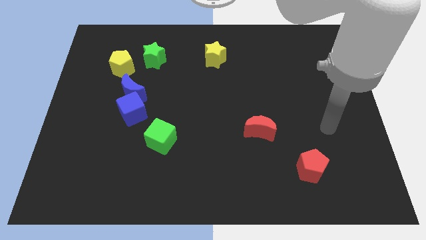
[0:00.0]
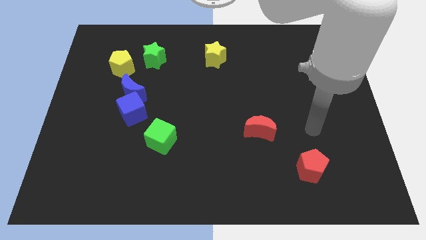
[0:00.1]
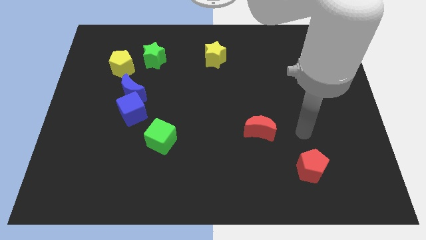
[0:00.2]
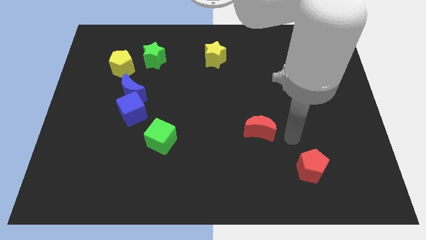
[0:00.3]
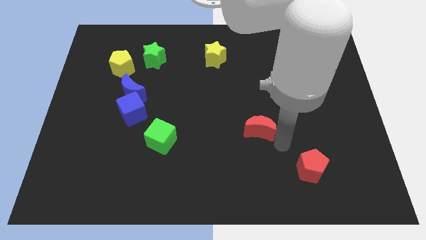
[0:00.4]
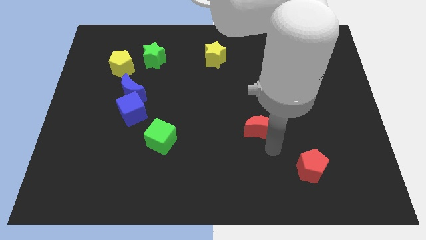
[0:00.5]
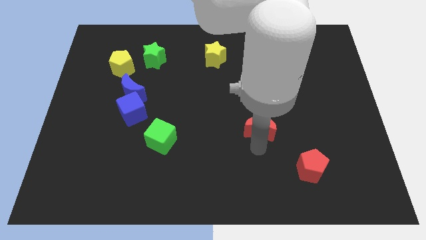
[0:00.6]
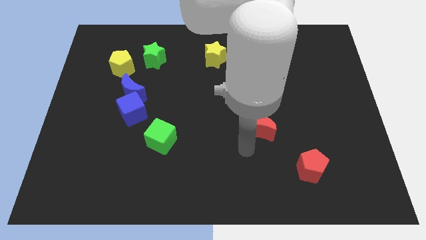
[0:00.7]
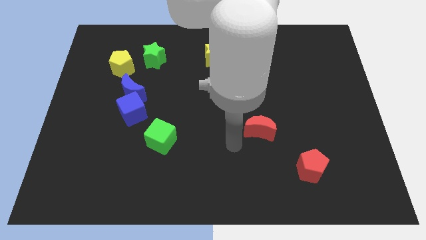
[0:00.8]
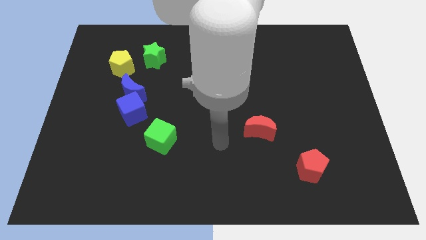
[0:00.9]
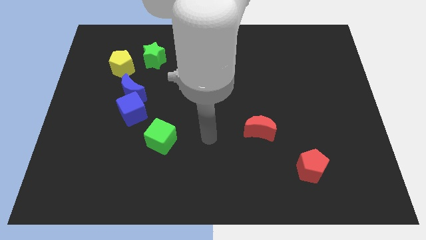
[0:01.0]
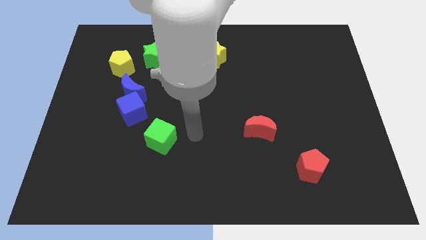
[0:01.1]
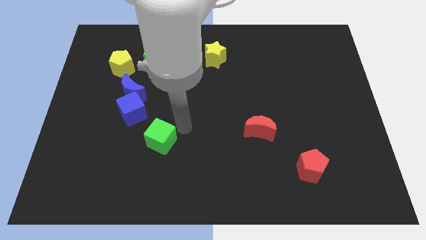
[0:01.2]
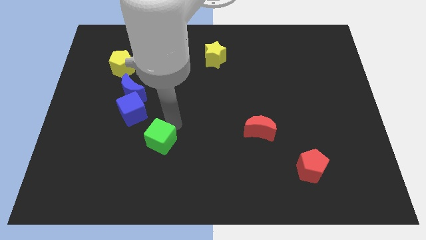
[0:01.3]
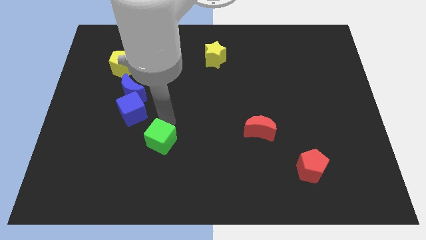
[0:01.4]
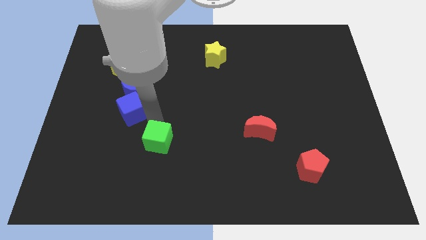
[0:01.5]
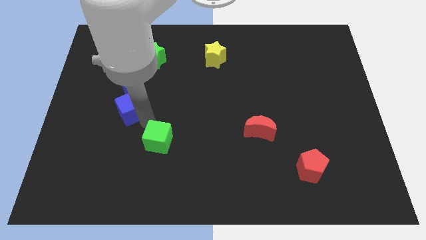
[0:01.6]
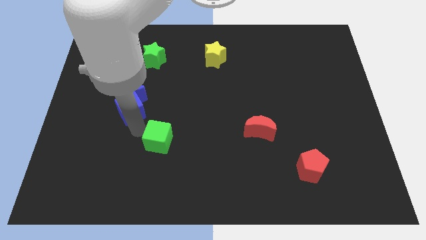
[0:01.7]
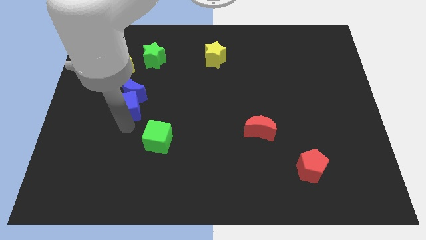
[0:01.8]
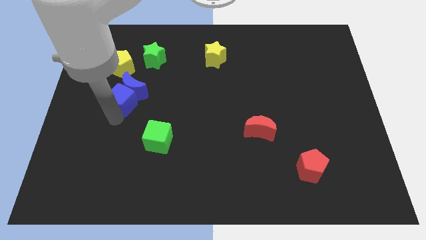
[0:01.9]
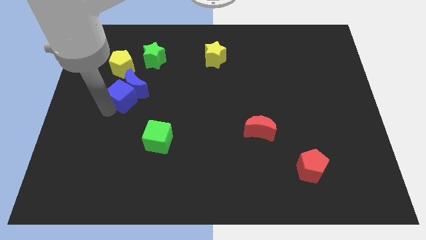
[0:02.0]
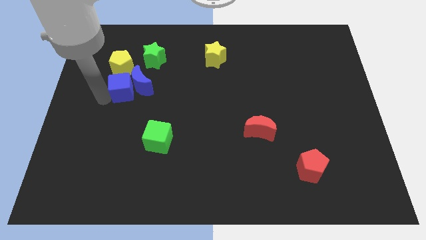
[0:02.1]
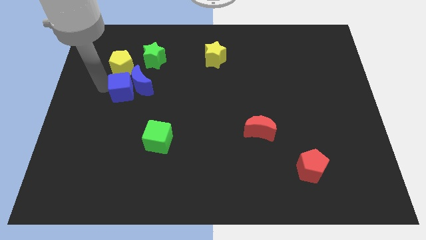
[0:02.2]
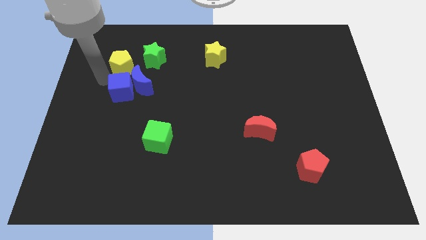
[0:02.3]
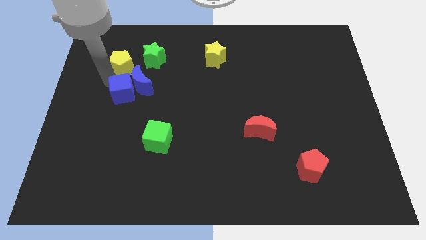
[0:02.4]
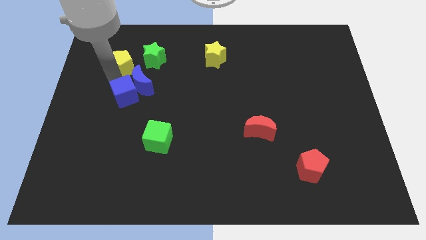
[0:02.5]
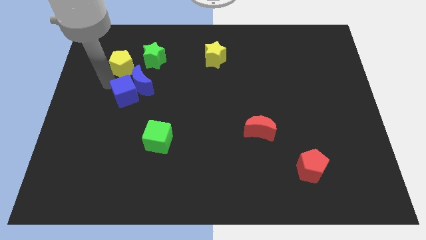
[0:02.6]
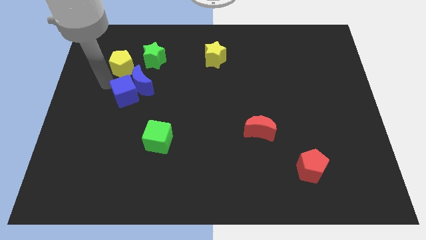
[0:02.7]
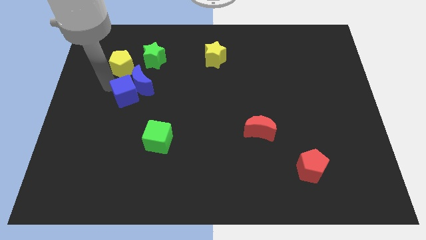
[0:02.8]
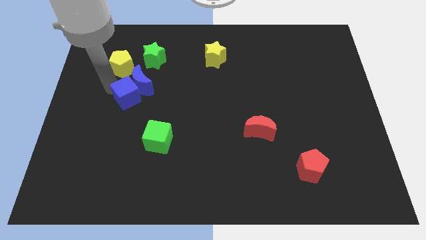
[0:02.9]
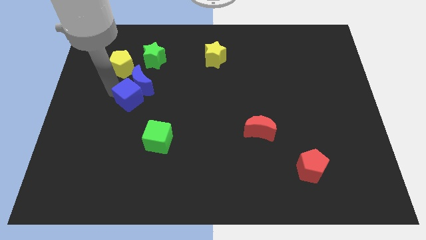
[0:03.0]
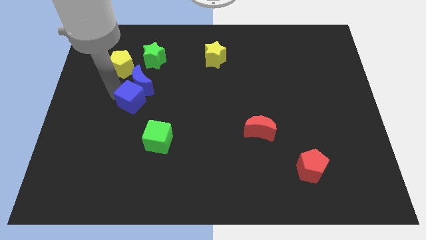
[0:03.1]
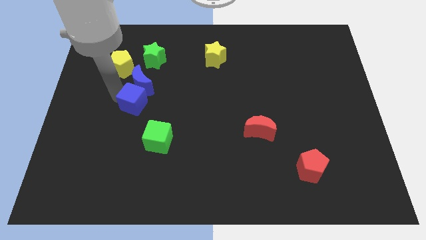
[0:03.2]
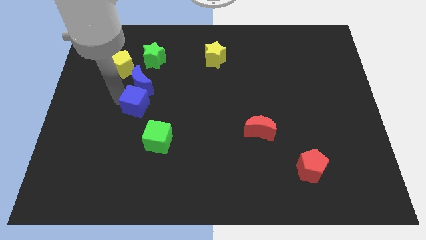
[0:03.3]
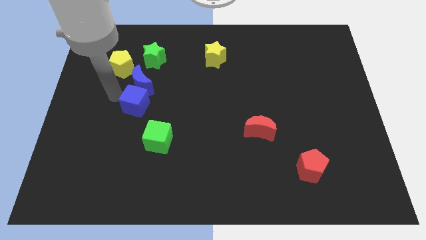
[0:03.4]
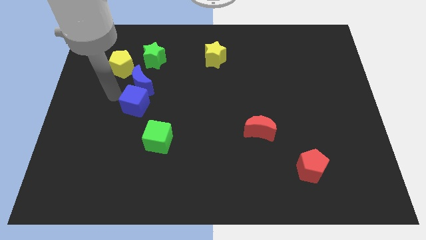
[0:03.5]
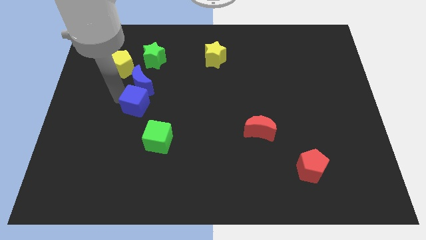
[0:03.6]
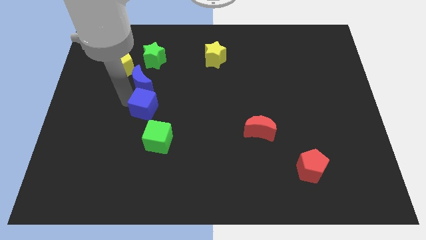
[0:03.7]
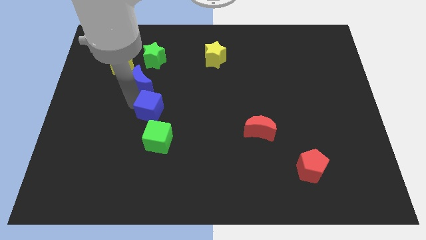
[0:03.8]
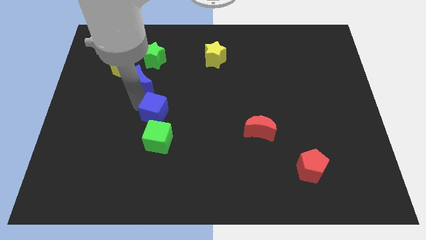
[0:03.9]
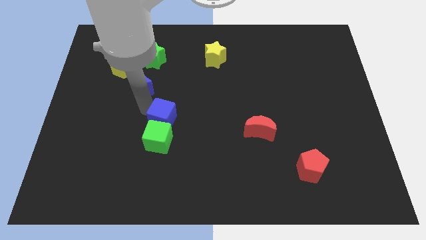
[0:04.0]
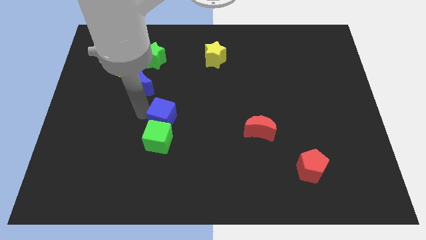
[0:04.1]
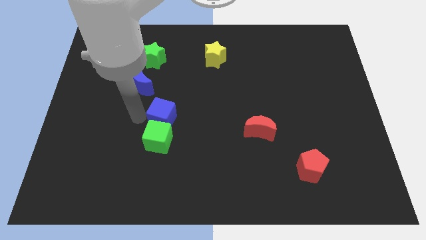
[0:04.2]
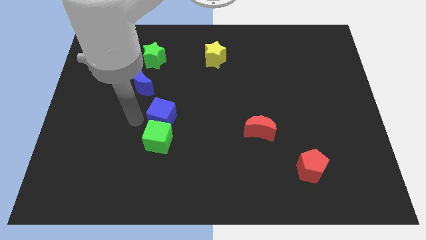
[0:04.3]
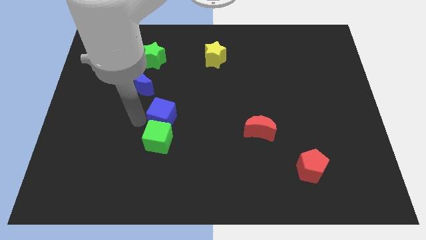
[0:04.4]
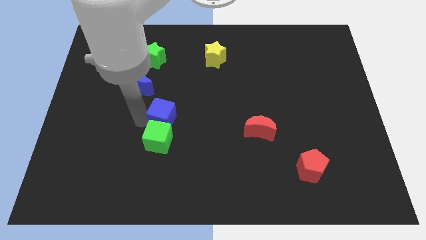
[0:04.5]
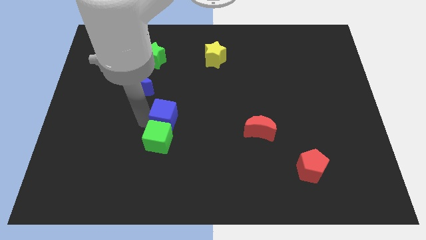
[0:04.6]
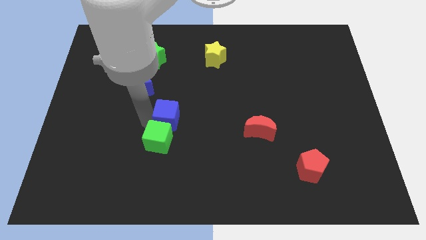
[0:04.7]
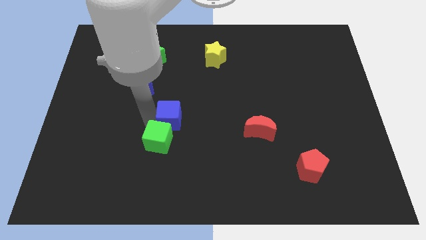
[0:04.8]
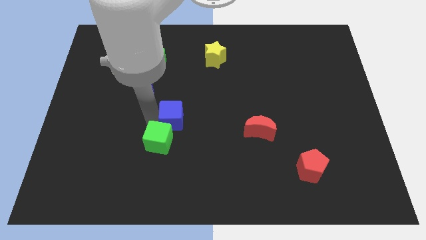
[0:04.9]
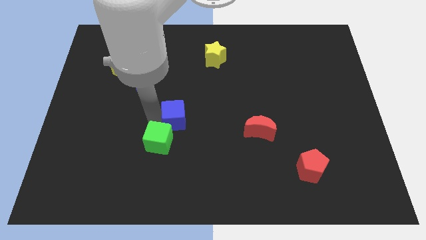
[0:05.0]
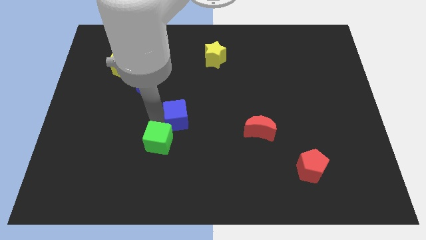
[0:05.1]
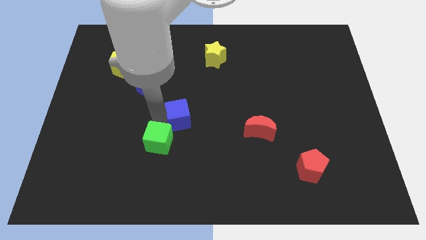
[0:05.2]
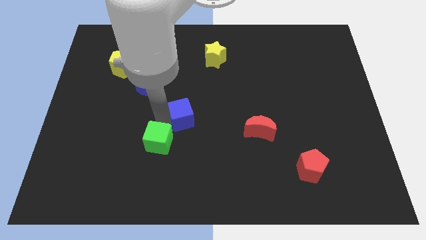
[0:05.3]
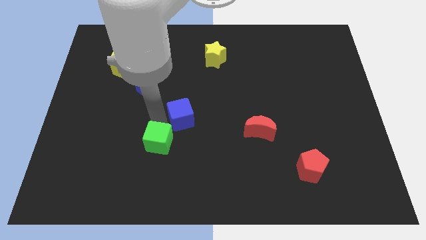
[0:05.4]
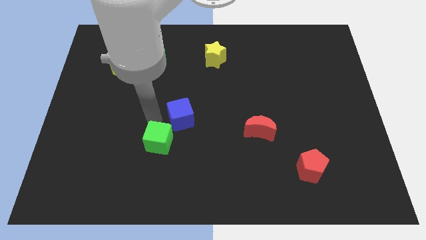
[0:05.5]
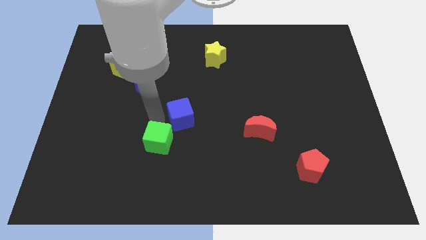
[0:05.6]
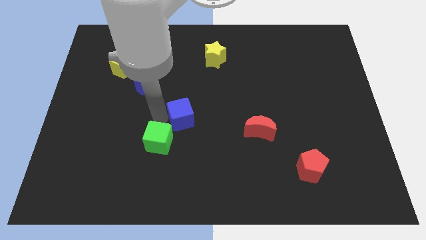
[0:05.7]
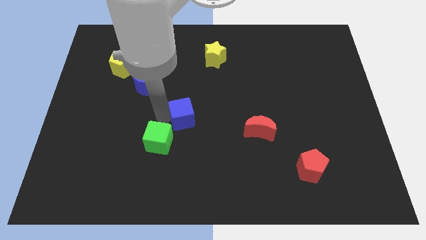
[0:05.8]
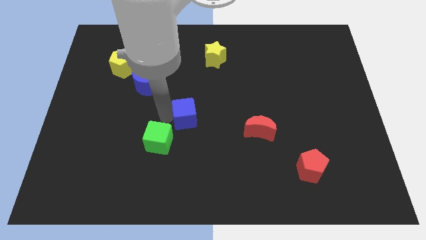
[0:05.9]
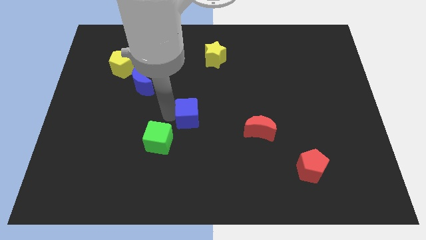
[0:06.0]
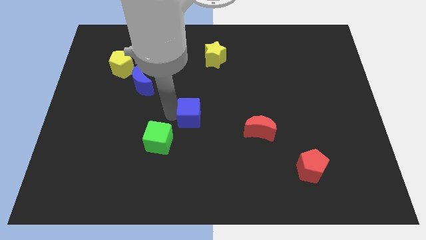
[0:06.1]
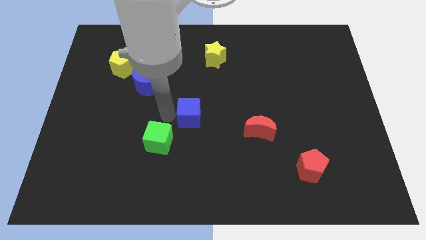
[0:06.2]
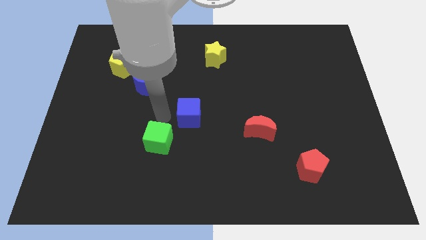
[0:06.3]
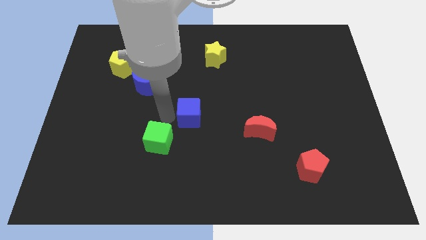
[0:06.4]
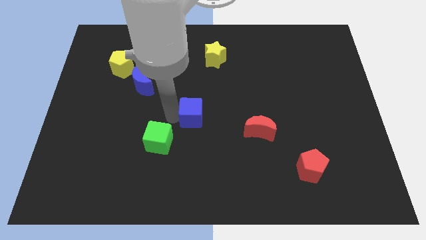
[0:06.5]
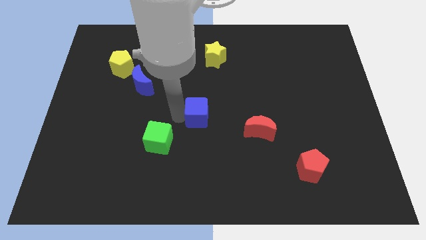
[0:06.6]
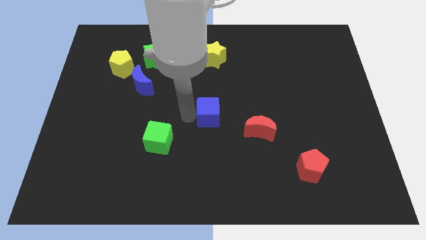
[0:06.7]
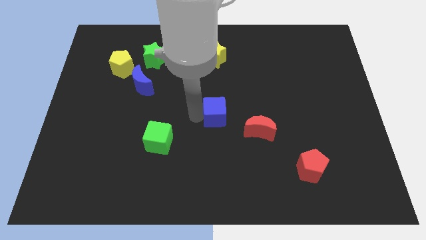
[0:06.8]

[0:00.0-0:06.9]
push the blue cube diagonally up and to the left of the red moon
